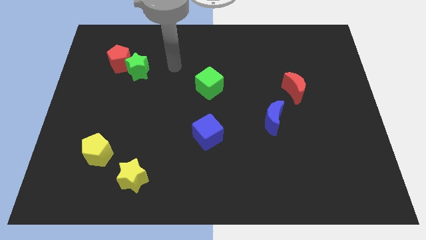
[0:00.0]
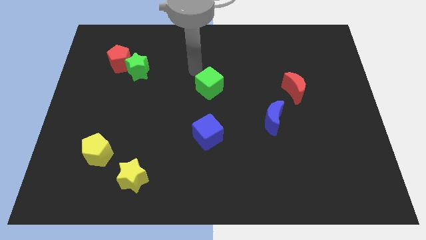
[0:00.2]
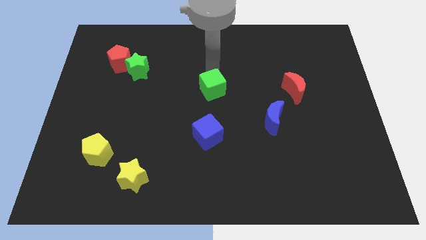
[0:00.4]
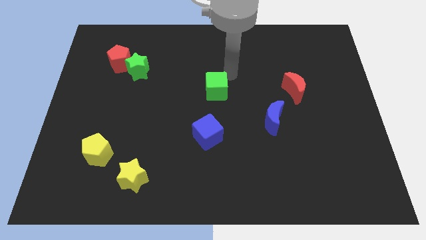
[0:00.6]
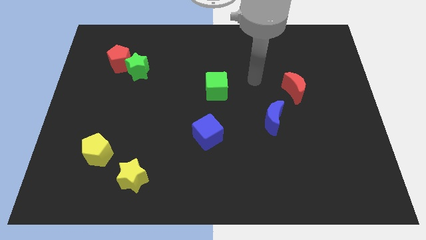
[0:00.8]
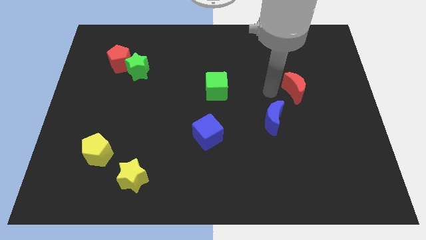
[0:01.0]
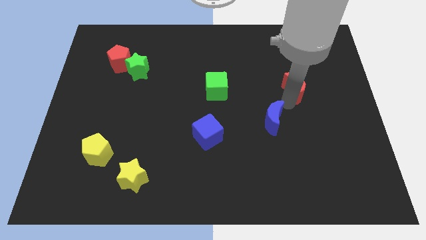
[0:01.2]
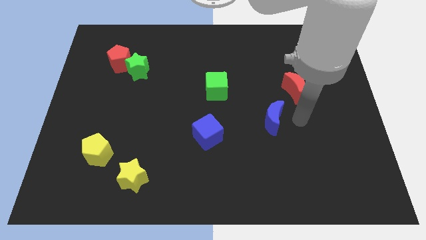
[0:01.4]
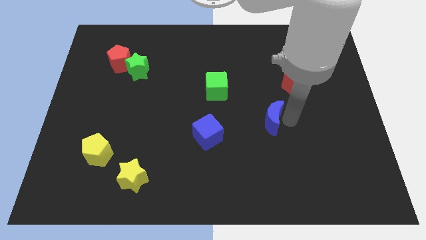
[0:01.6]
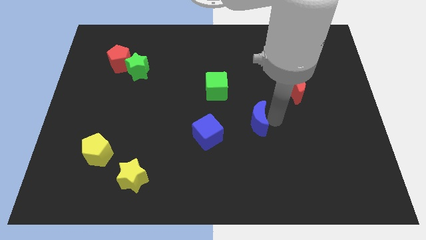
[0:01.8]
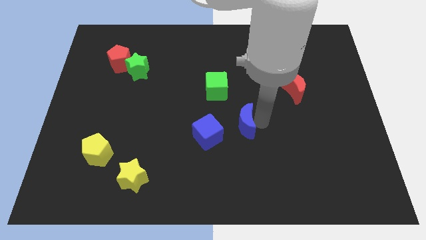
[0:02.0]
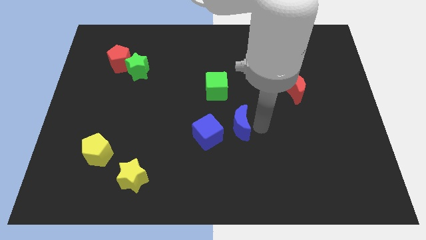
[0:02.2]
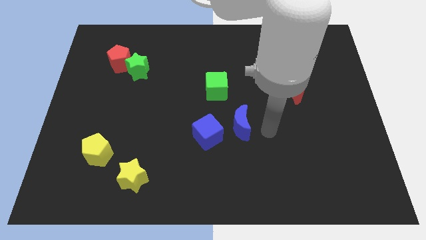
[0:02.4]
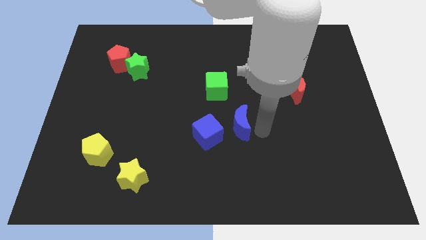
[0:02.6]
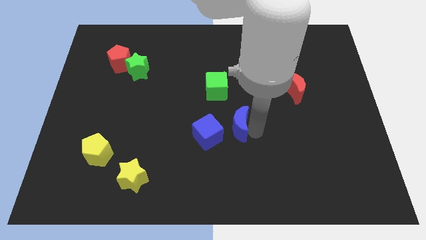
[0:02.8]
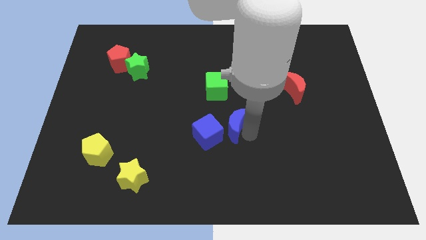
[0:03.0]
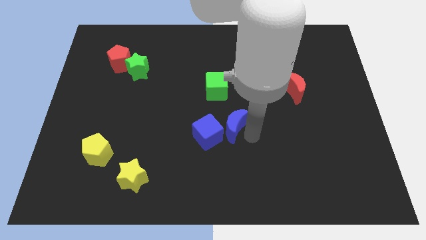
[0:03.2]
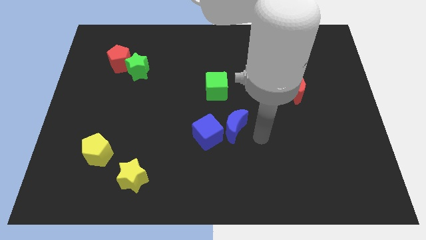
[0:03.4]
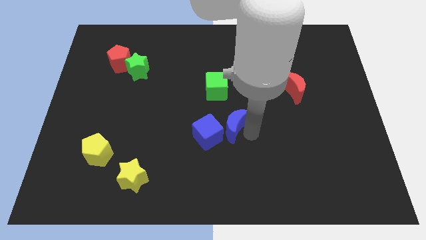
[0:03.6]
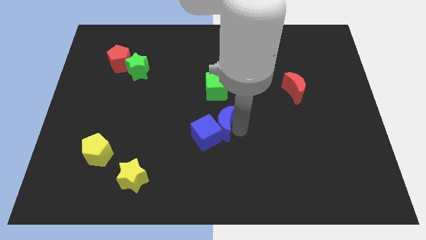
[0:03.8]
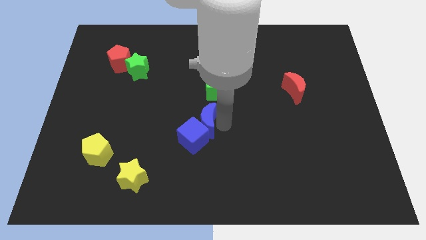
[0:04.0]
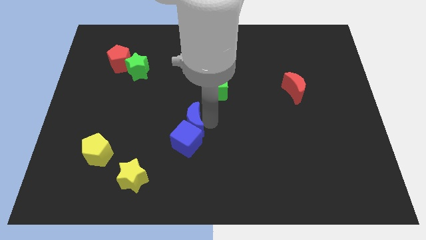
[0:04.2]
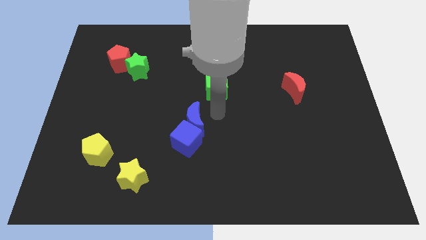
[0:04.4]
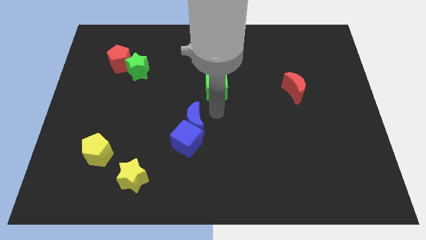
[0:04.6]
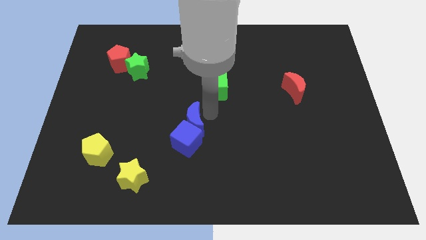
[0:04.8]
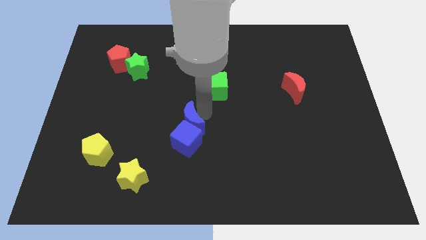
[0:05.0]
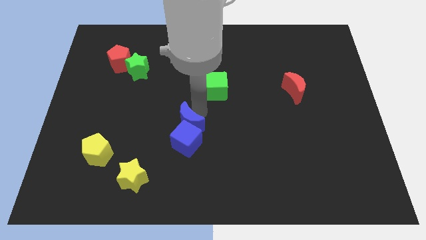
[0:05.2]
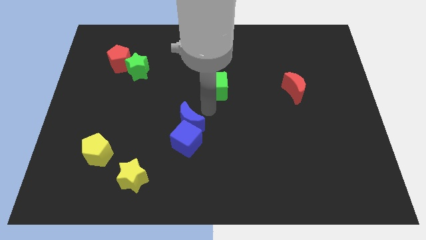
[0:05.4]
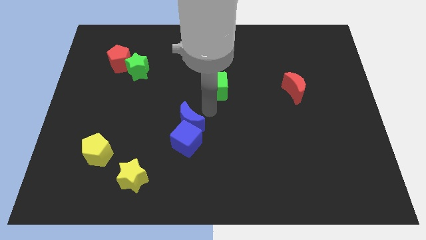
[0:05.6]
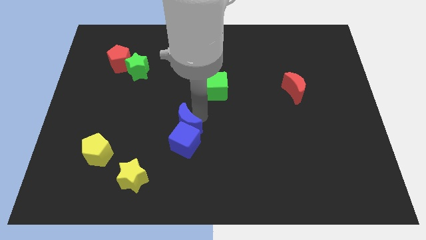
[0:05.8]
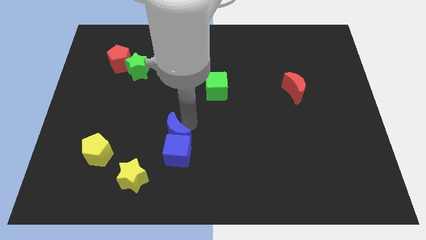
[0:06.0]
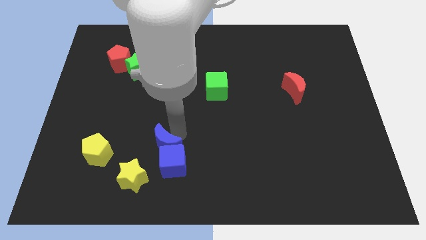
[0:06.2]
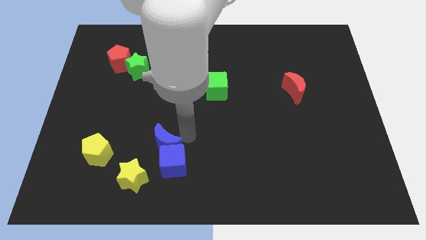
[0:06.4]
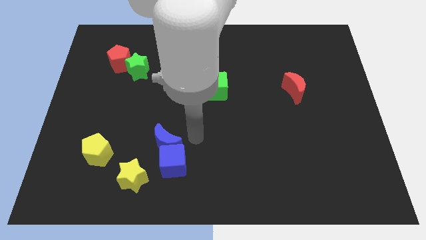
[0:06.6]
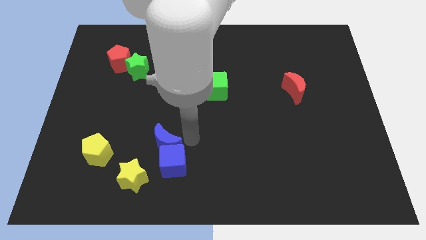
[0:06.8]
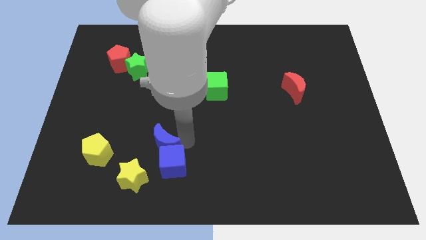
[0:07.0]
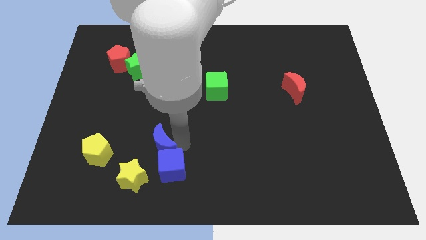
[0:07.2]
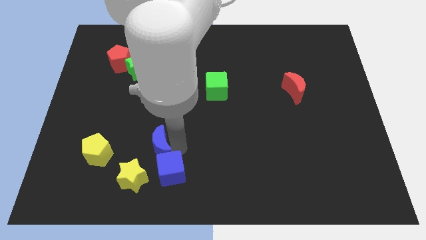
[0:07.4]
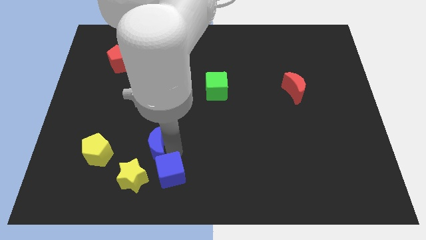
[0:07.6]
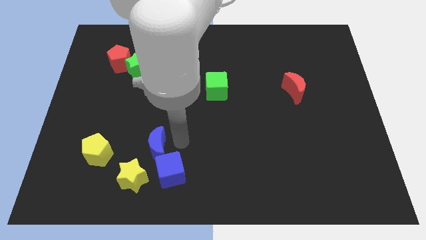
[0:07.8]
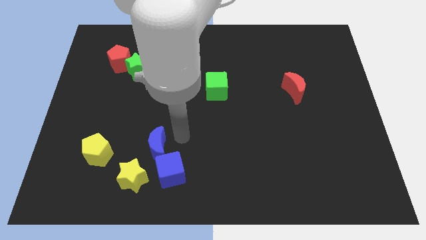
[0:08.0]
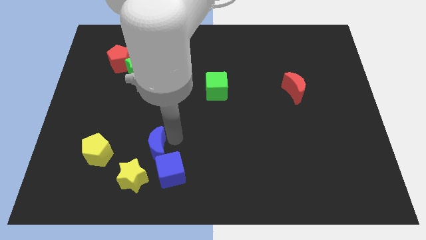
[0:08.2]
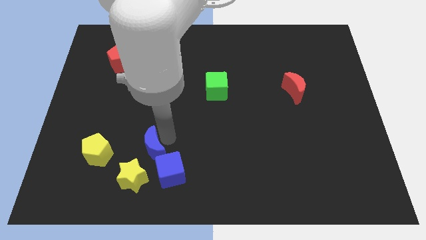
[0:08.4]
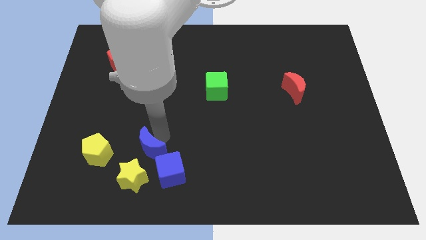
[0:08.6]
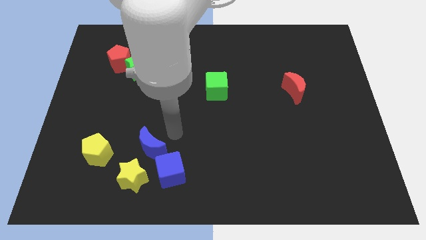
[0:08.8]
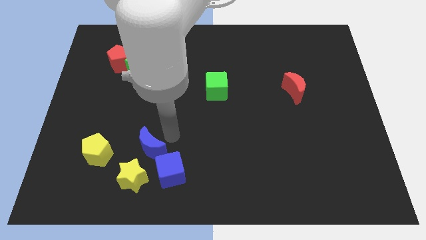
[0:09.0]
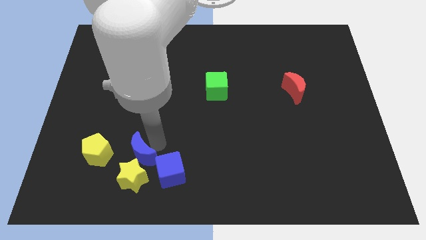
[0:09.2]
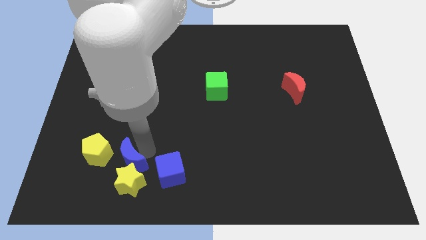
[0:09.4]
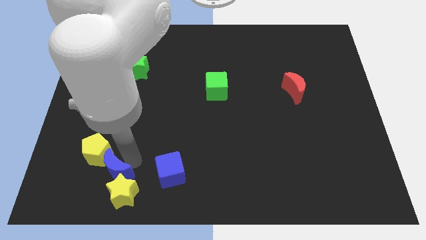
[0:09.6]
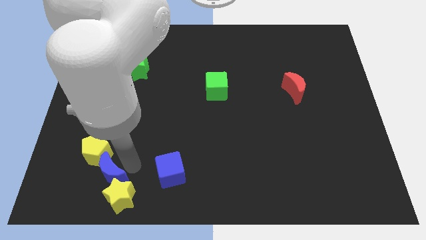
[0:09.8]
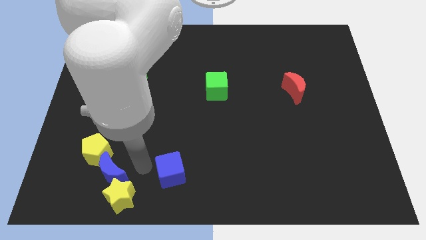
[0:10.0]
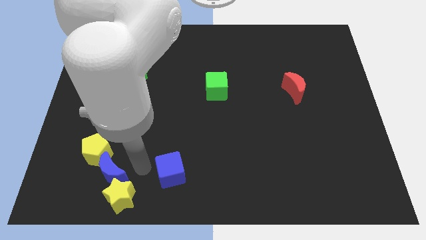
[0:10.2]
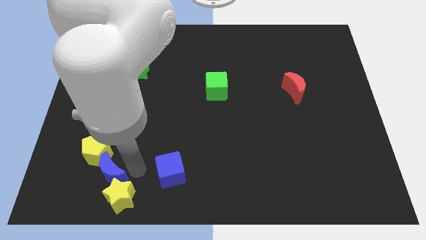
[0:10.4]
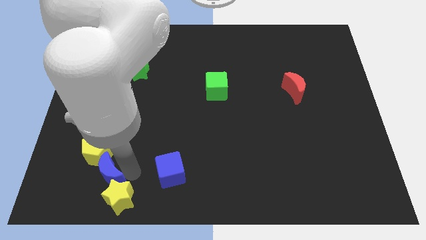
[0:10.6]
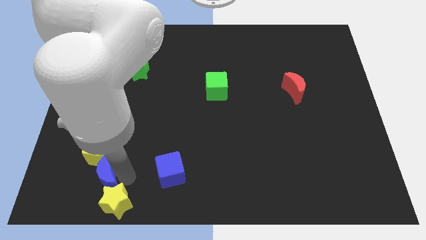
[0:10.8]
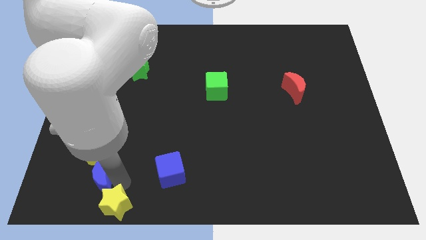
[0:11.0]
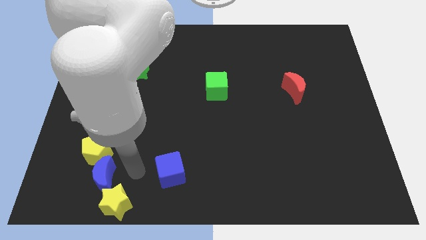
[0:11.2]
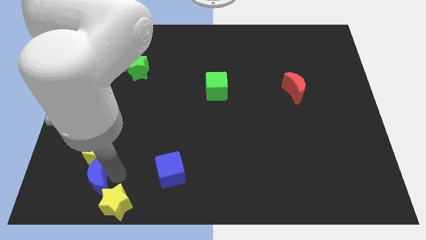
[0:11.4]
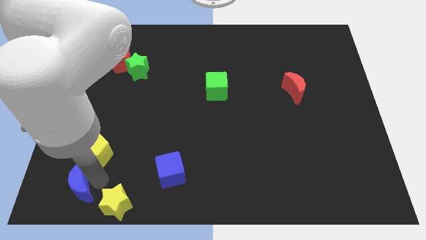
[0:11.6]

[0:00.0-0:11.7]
slide the blue moon to the bottom left corner

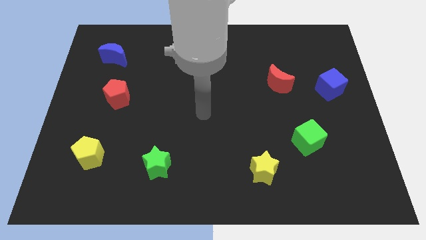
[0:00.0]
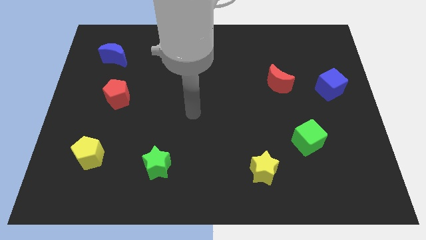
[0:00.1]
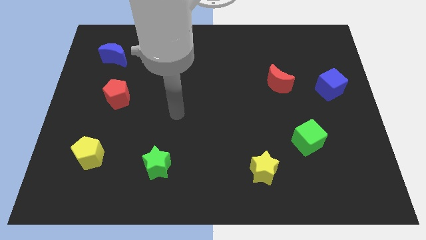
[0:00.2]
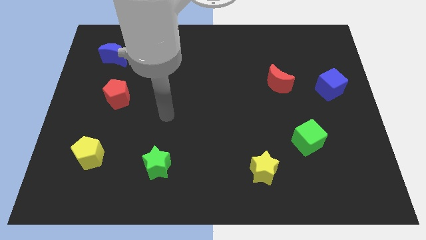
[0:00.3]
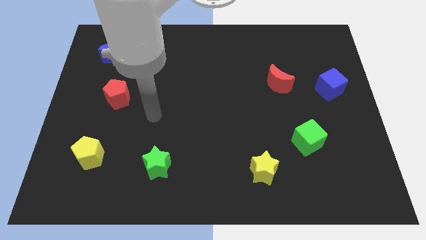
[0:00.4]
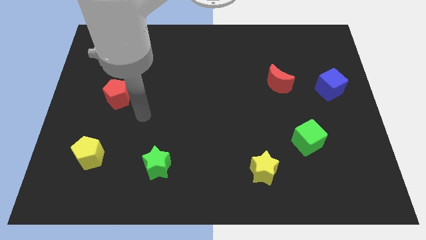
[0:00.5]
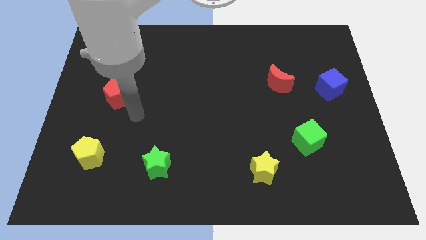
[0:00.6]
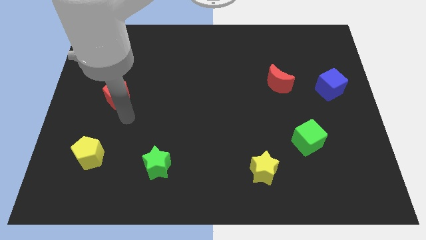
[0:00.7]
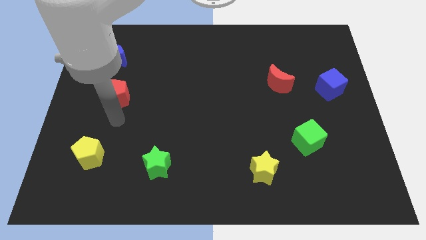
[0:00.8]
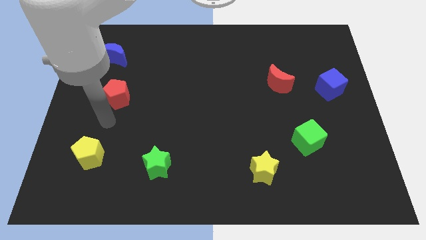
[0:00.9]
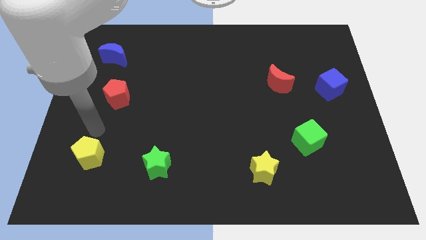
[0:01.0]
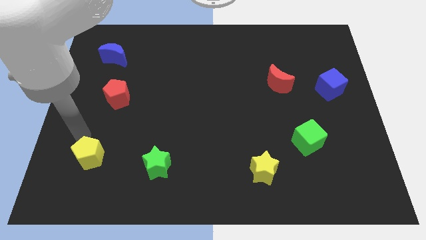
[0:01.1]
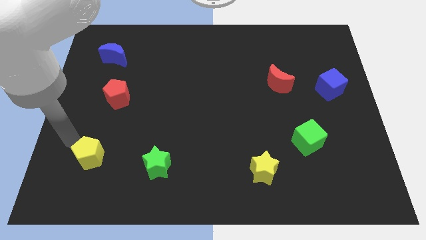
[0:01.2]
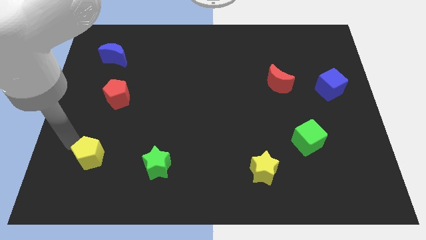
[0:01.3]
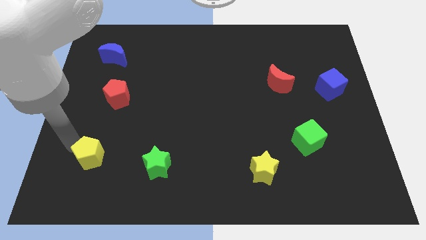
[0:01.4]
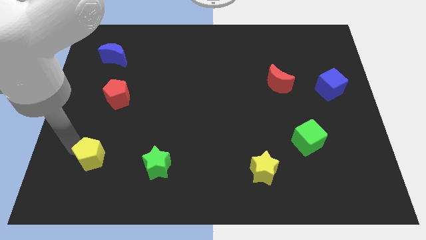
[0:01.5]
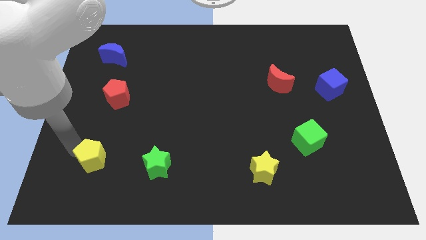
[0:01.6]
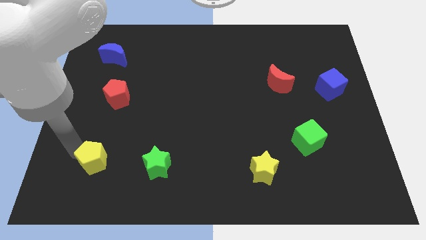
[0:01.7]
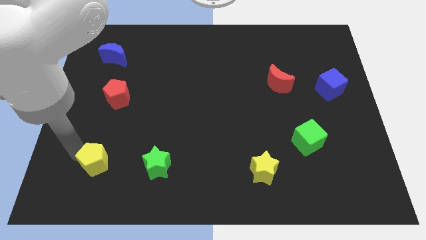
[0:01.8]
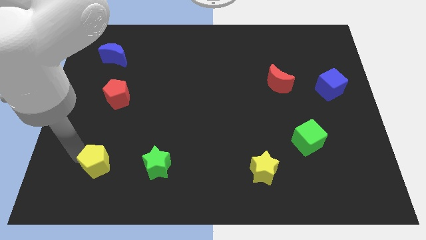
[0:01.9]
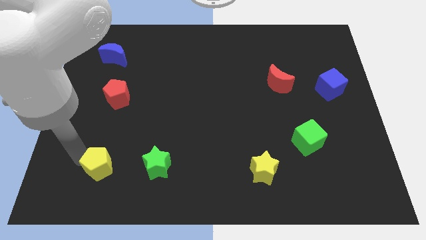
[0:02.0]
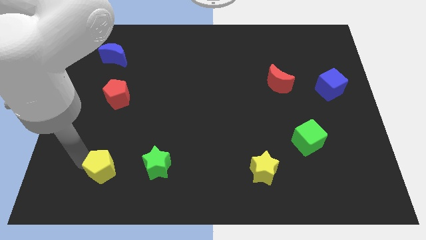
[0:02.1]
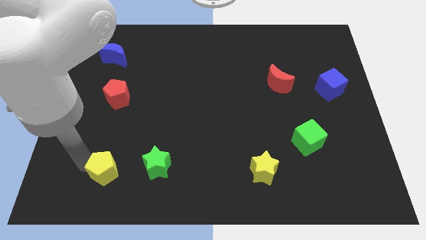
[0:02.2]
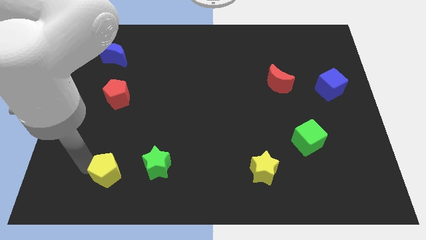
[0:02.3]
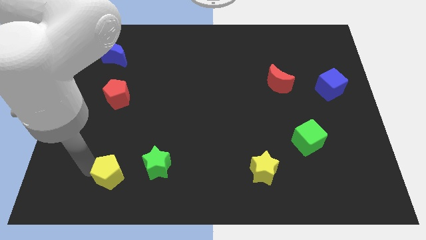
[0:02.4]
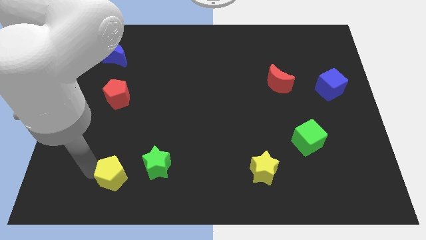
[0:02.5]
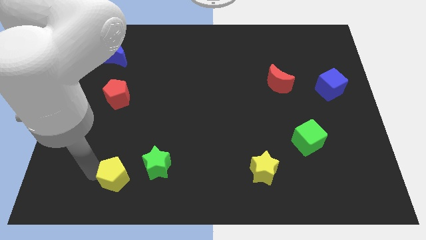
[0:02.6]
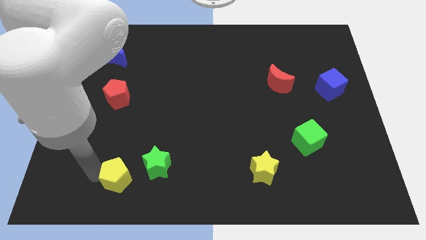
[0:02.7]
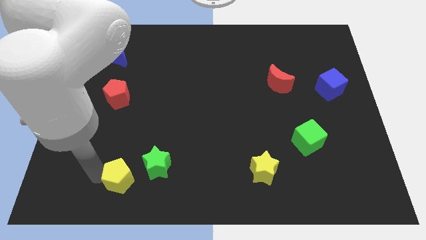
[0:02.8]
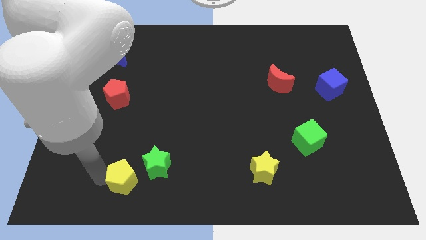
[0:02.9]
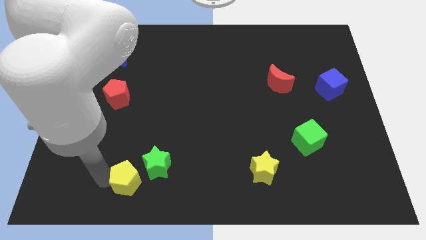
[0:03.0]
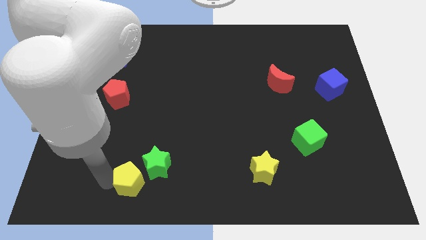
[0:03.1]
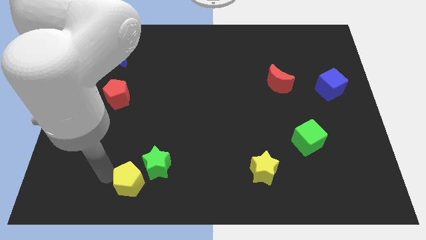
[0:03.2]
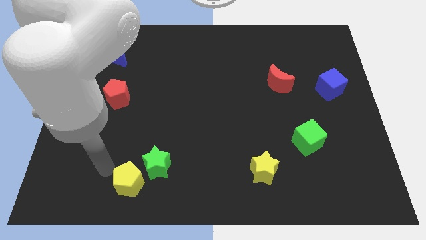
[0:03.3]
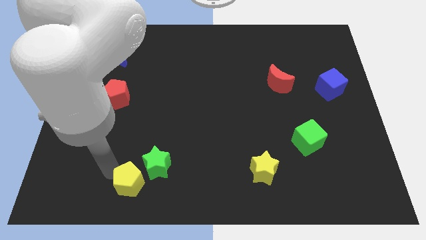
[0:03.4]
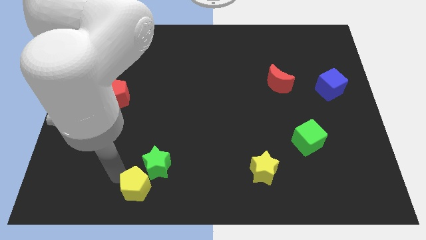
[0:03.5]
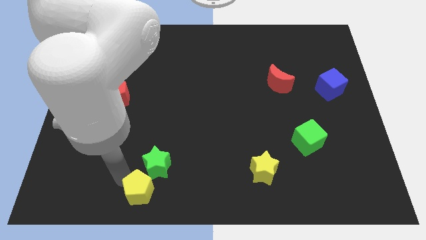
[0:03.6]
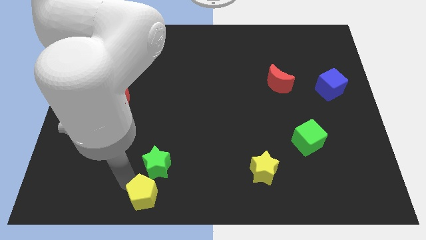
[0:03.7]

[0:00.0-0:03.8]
slide the yellow pentagon to the bottom
